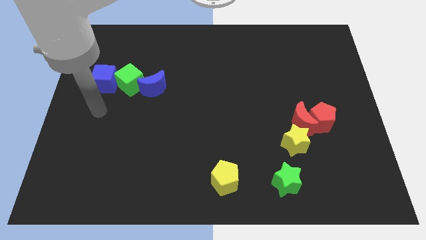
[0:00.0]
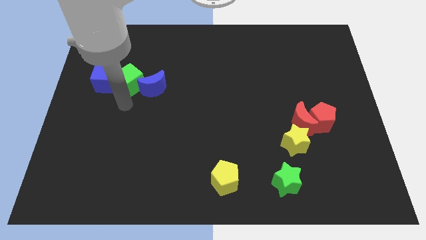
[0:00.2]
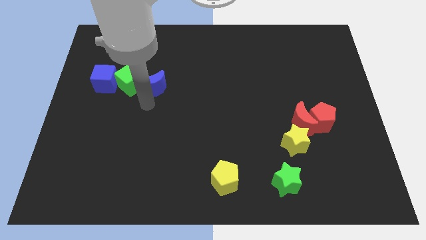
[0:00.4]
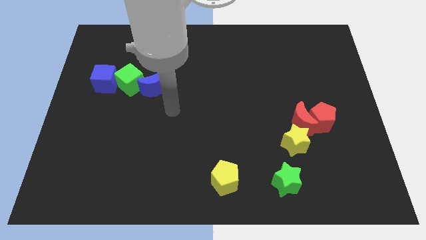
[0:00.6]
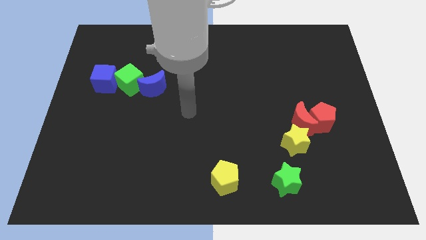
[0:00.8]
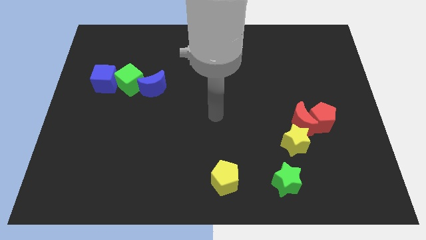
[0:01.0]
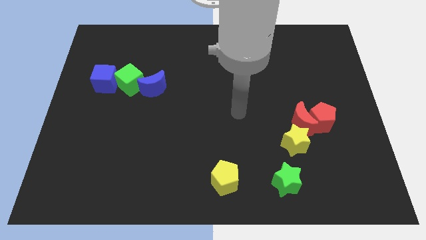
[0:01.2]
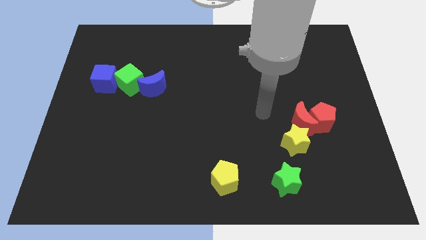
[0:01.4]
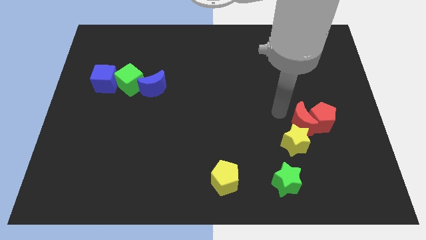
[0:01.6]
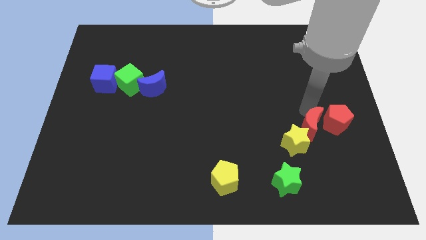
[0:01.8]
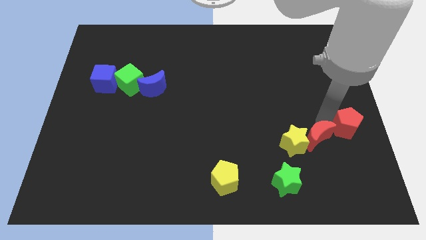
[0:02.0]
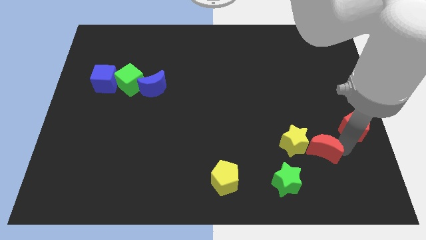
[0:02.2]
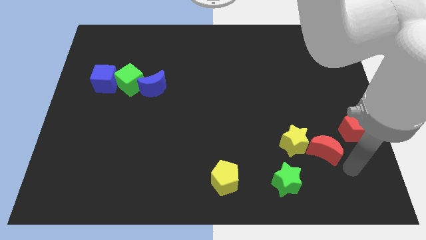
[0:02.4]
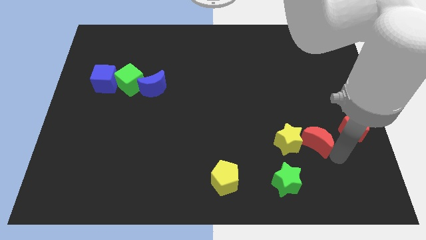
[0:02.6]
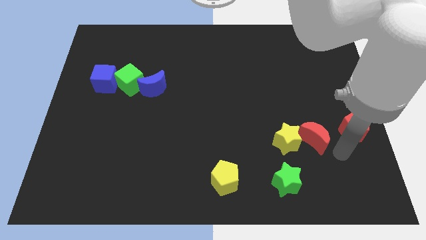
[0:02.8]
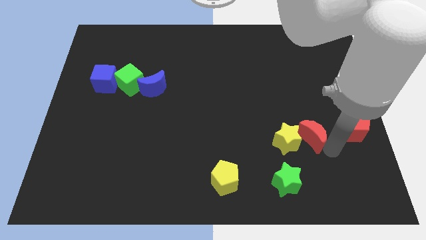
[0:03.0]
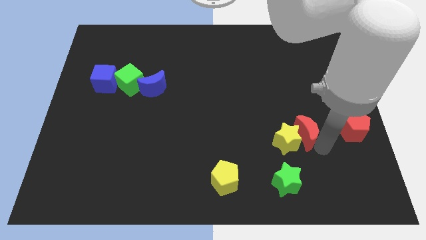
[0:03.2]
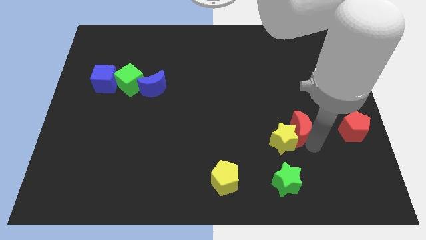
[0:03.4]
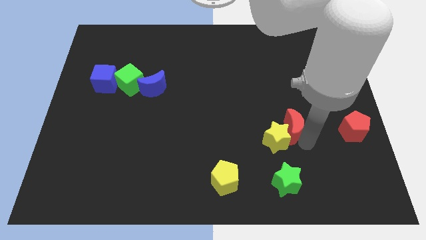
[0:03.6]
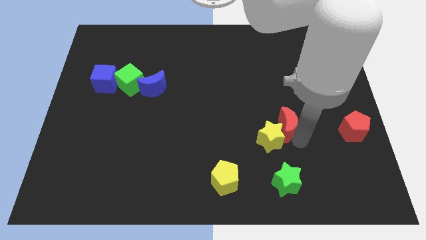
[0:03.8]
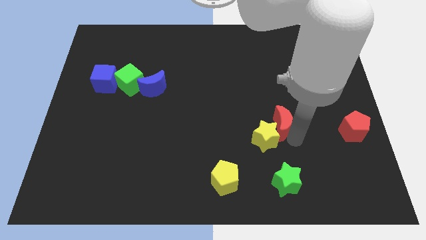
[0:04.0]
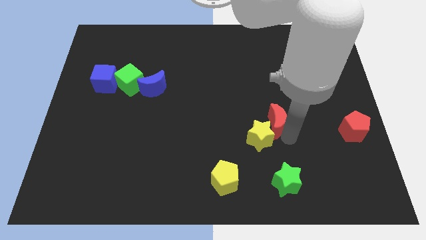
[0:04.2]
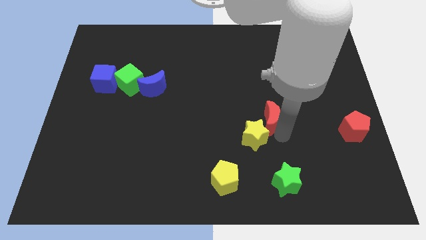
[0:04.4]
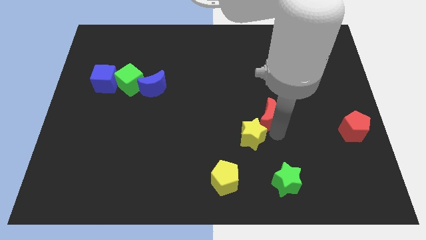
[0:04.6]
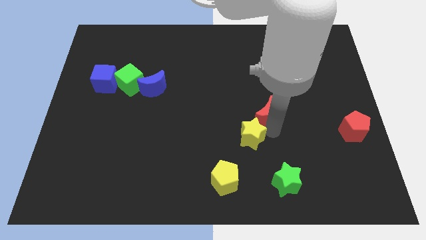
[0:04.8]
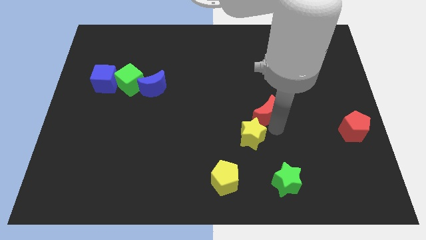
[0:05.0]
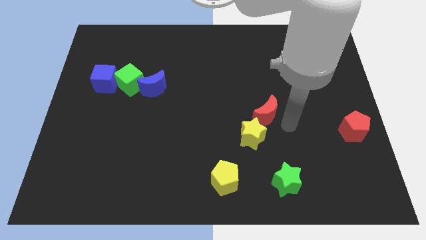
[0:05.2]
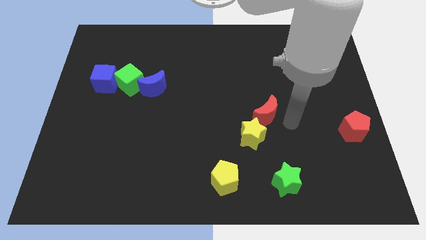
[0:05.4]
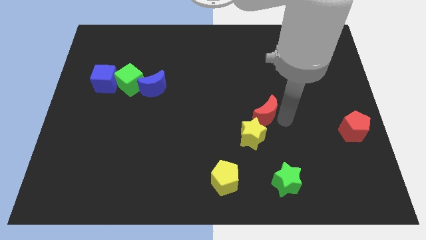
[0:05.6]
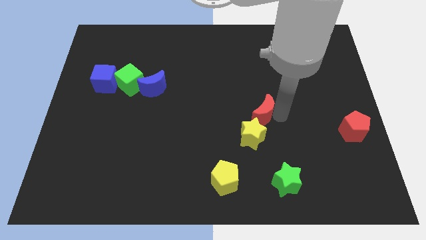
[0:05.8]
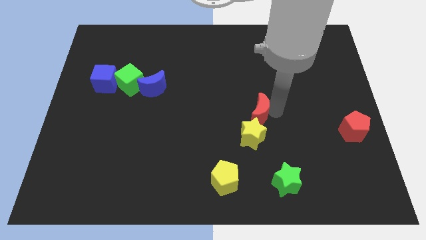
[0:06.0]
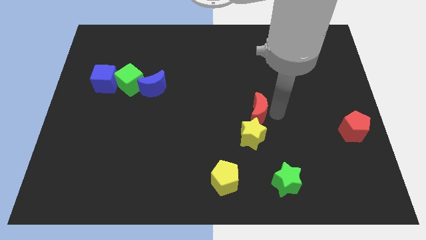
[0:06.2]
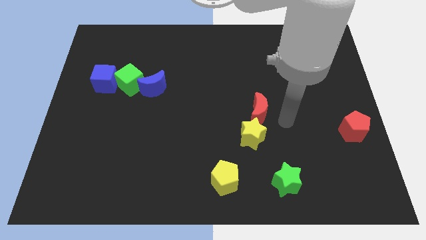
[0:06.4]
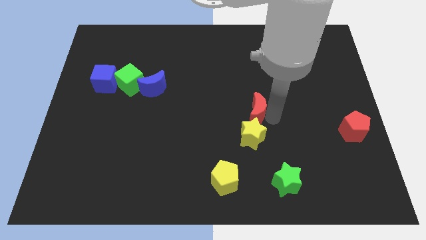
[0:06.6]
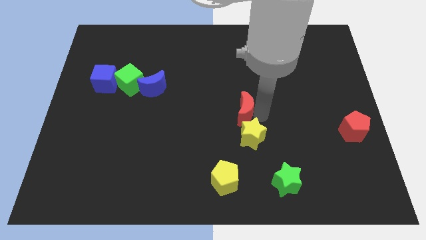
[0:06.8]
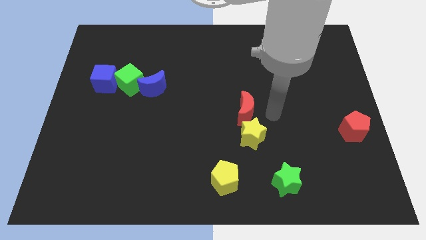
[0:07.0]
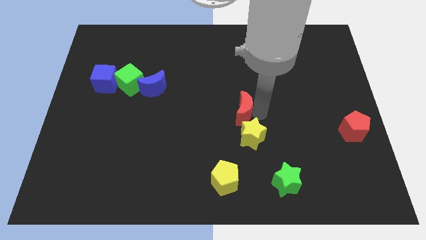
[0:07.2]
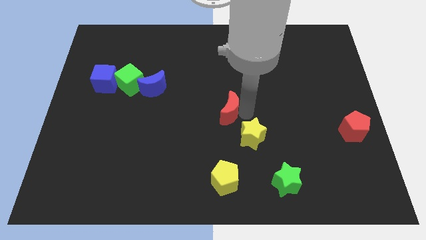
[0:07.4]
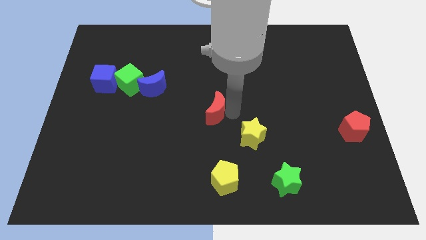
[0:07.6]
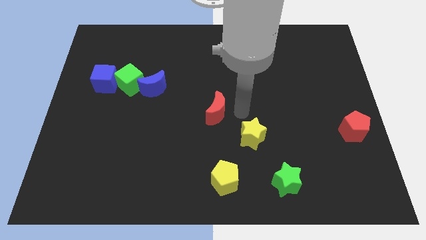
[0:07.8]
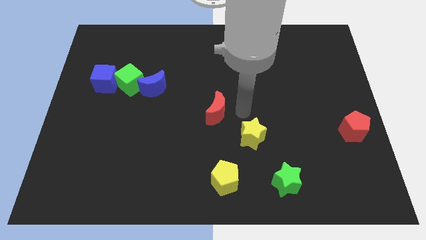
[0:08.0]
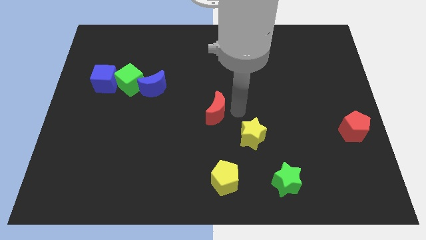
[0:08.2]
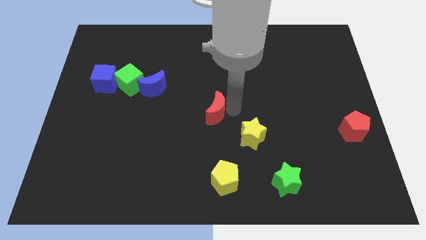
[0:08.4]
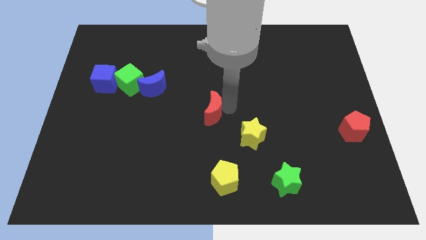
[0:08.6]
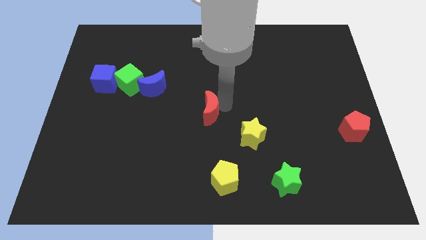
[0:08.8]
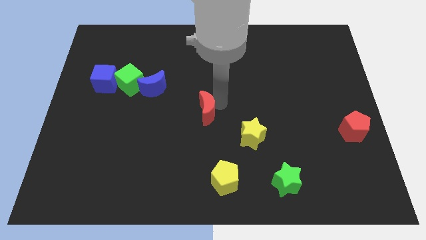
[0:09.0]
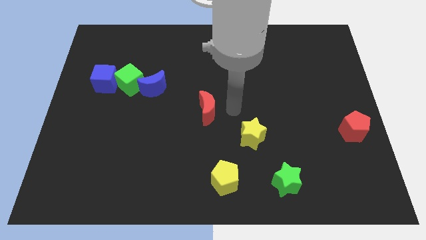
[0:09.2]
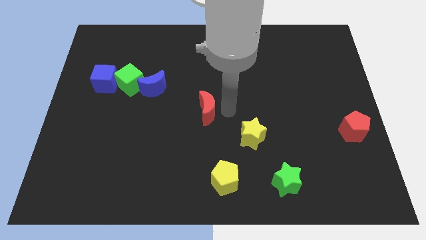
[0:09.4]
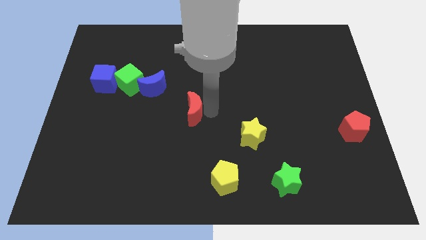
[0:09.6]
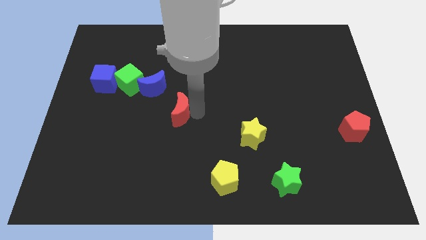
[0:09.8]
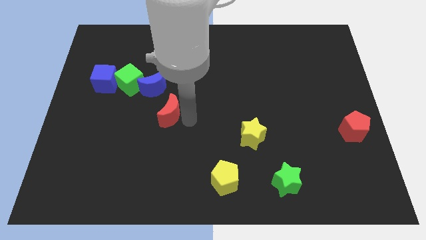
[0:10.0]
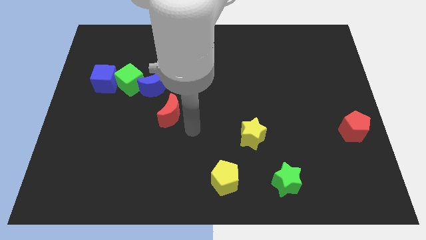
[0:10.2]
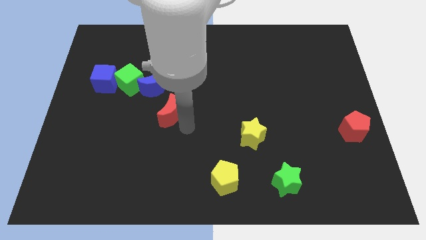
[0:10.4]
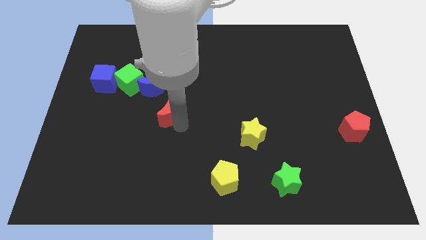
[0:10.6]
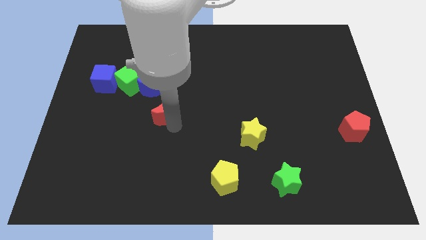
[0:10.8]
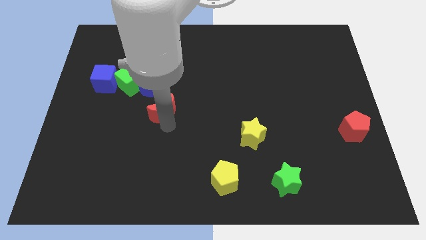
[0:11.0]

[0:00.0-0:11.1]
move the red moon to the bottom right side of the green cube
